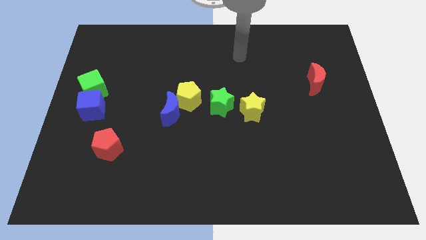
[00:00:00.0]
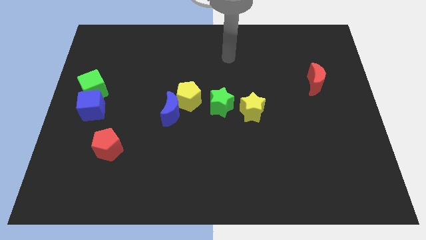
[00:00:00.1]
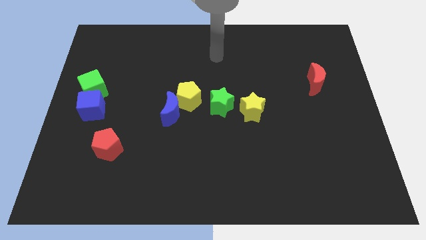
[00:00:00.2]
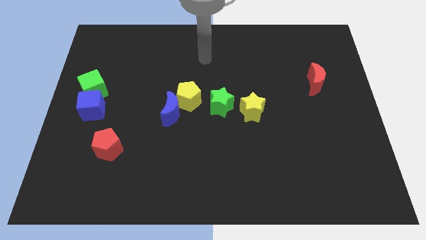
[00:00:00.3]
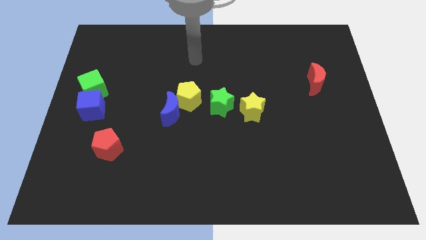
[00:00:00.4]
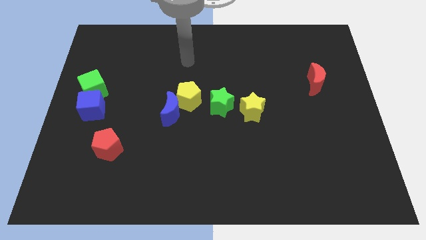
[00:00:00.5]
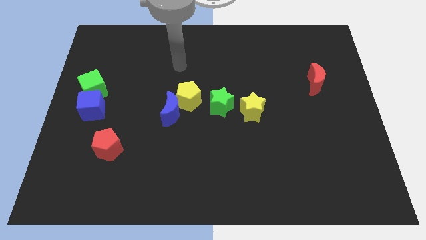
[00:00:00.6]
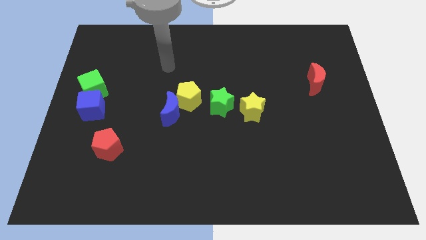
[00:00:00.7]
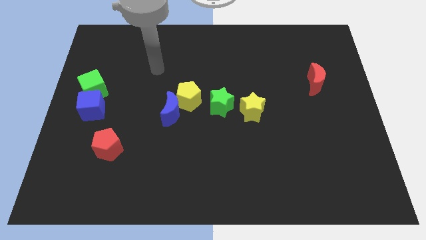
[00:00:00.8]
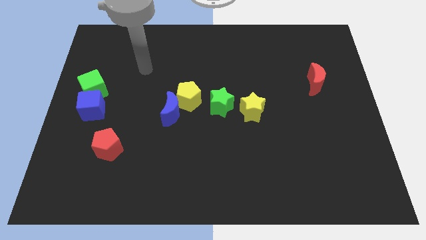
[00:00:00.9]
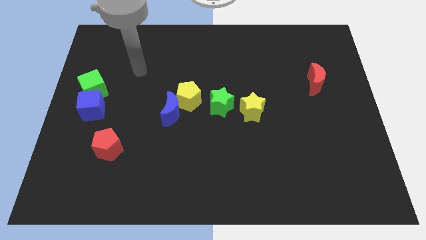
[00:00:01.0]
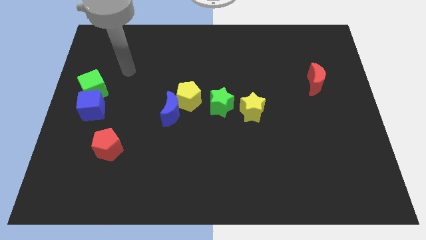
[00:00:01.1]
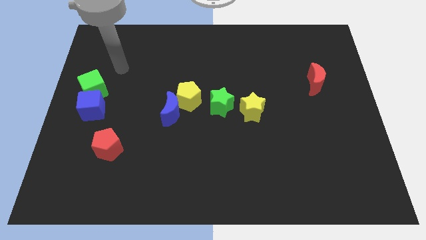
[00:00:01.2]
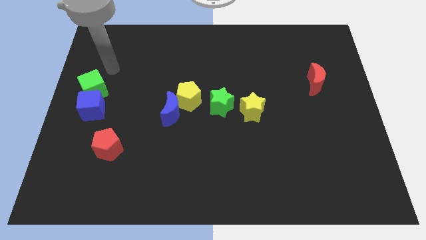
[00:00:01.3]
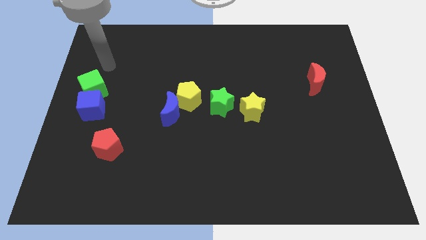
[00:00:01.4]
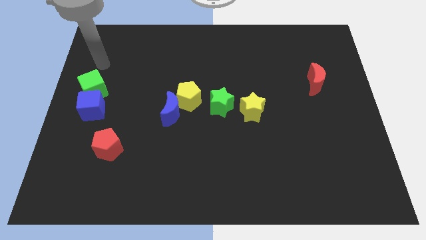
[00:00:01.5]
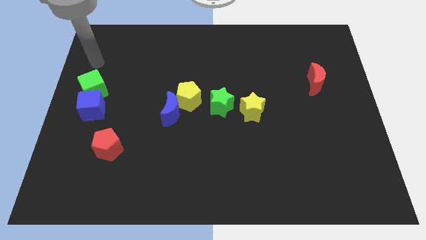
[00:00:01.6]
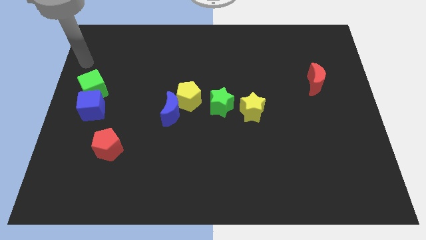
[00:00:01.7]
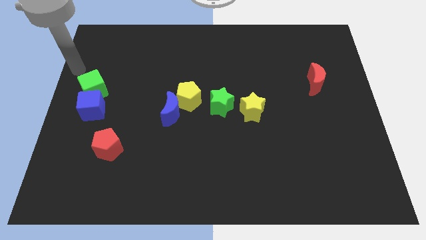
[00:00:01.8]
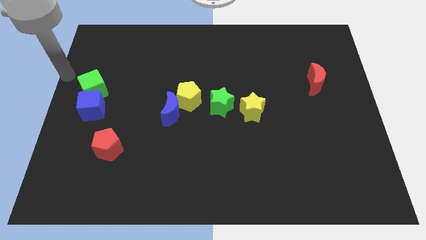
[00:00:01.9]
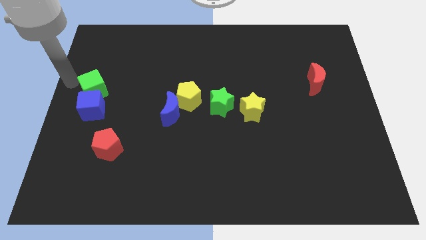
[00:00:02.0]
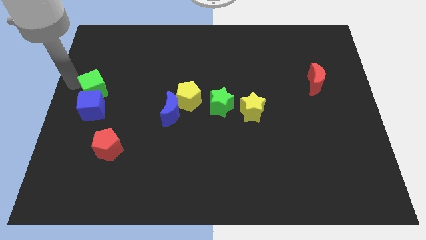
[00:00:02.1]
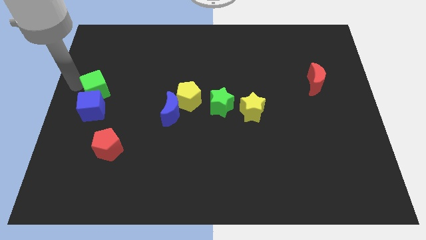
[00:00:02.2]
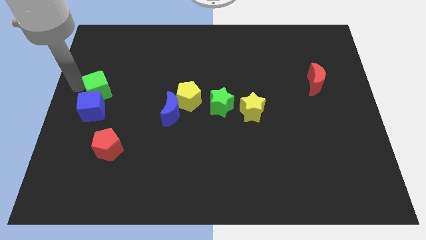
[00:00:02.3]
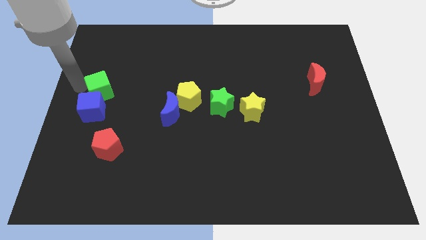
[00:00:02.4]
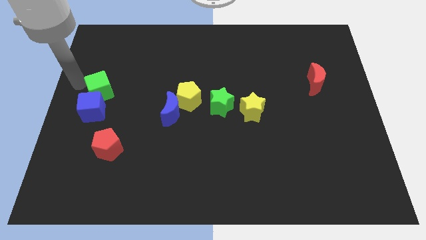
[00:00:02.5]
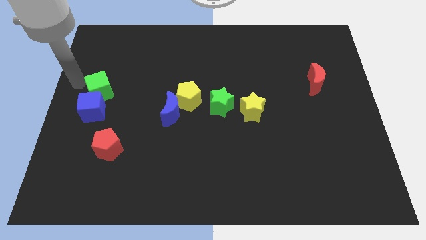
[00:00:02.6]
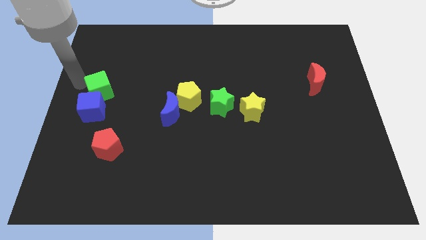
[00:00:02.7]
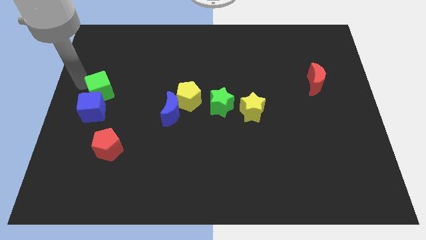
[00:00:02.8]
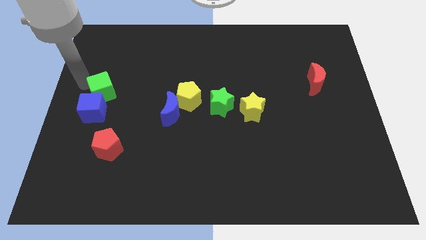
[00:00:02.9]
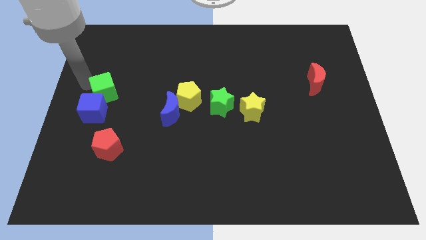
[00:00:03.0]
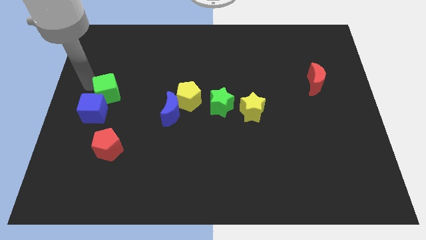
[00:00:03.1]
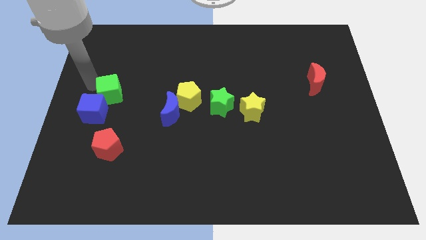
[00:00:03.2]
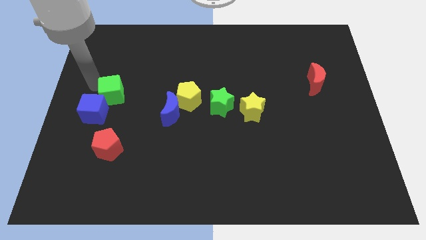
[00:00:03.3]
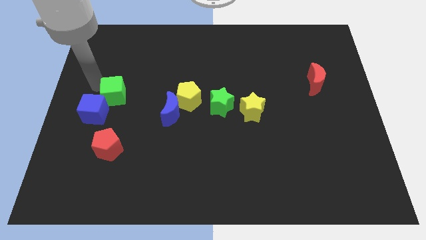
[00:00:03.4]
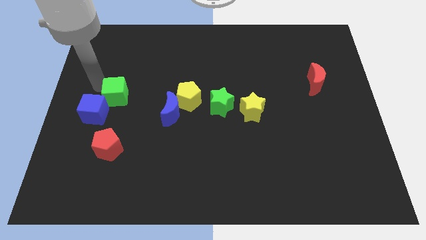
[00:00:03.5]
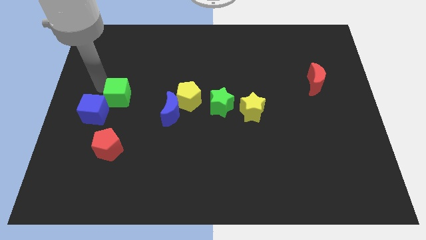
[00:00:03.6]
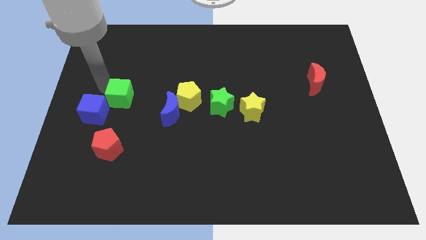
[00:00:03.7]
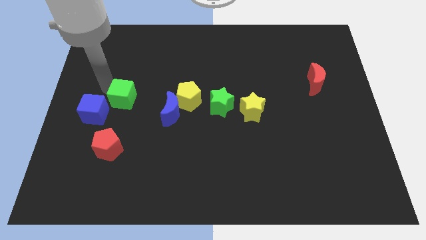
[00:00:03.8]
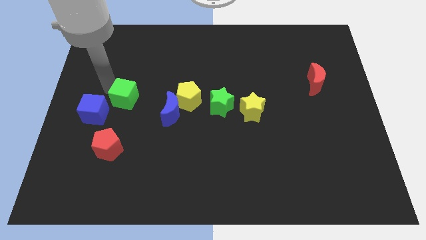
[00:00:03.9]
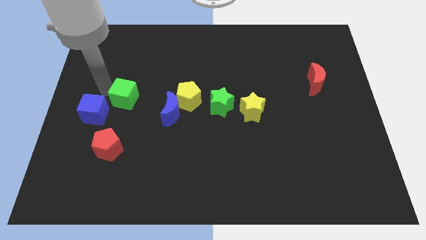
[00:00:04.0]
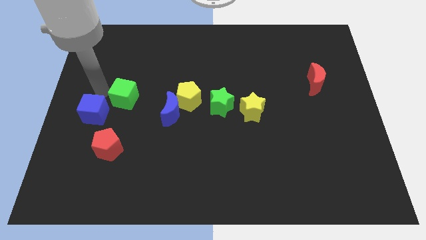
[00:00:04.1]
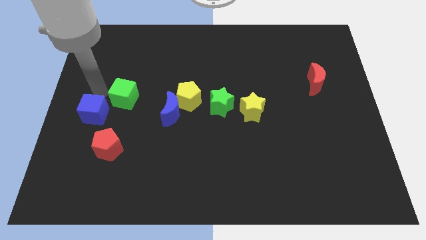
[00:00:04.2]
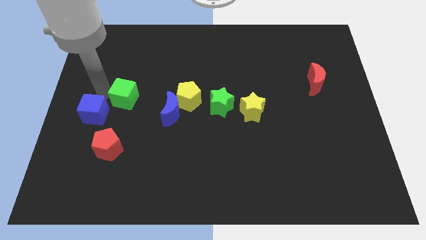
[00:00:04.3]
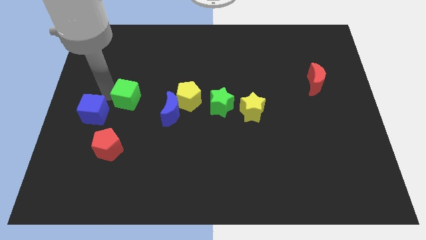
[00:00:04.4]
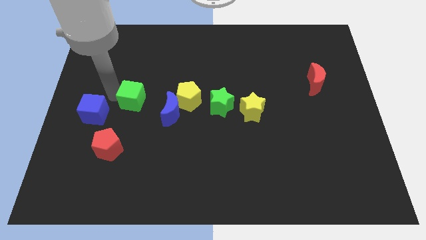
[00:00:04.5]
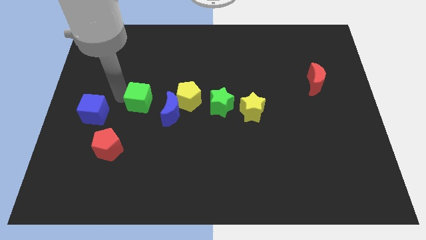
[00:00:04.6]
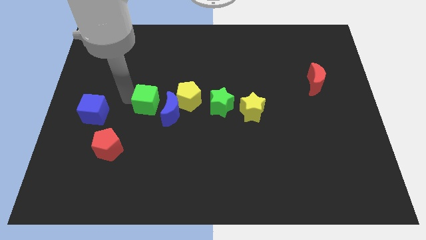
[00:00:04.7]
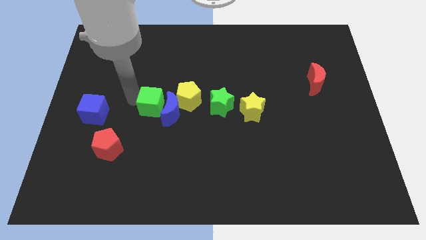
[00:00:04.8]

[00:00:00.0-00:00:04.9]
move the green cube towards the blue moon

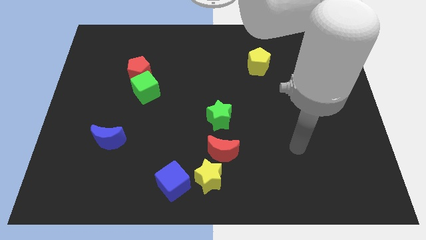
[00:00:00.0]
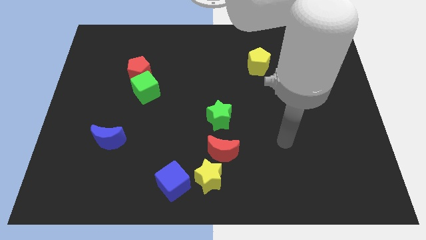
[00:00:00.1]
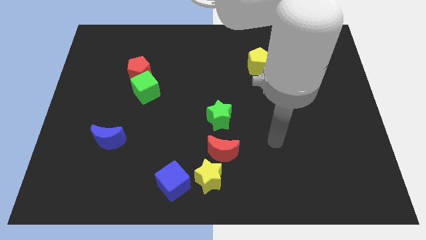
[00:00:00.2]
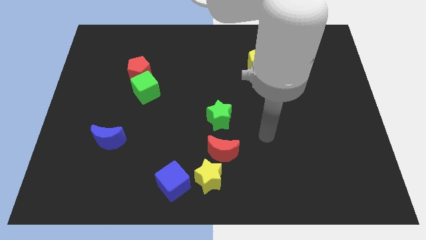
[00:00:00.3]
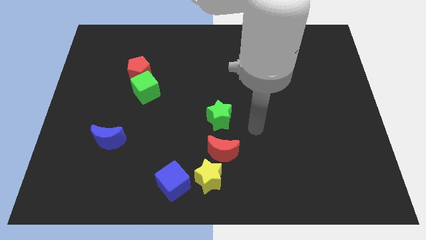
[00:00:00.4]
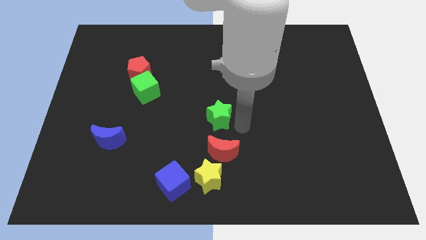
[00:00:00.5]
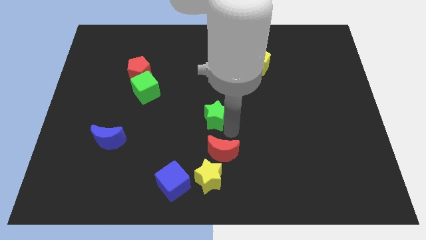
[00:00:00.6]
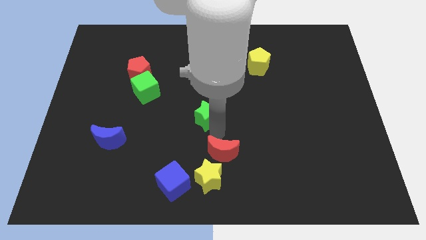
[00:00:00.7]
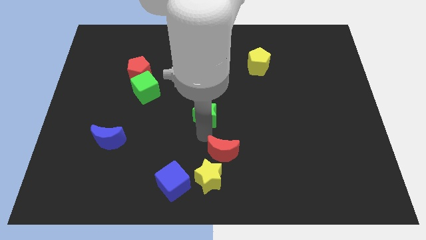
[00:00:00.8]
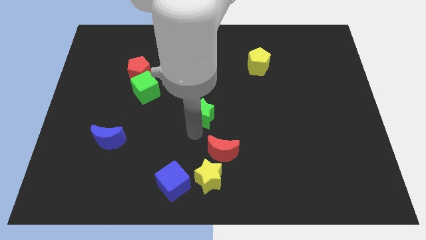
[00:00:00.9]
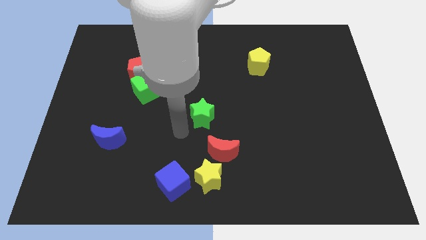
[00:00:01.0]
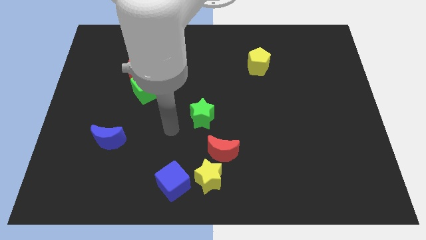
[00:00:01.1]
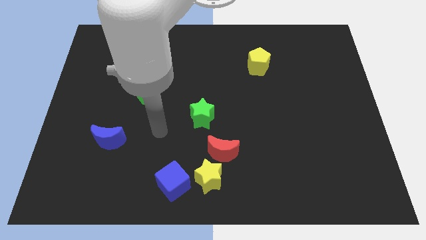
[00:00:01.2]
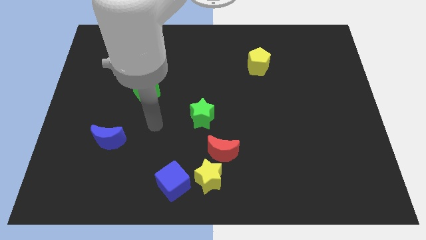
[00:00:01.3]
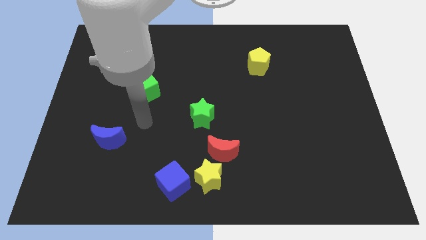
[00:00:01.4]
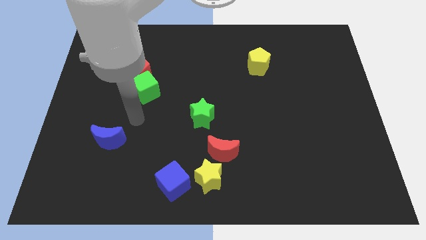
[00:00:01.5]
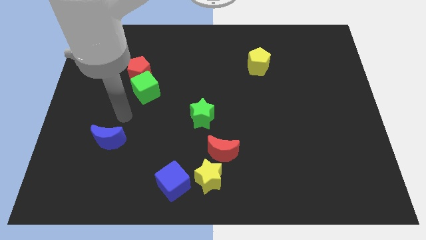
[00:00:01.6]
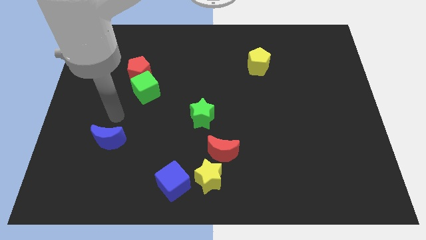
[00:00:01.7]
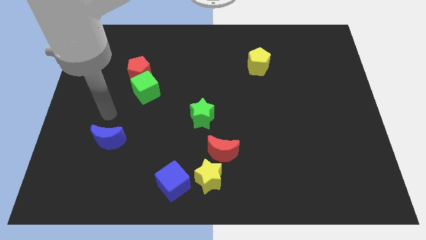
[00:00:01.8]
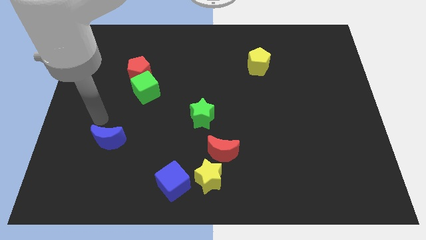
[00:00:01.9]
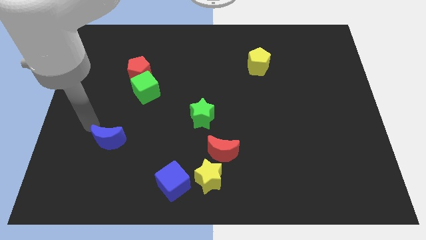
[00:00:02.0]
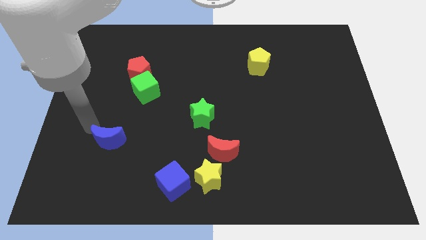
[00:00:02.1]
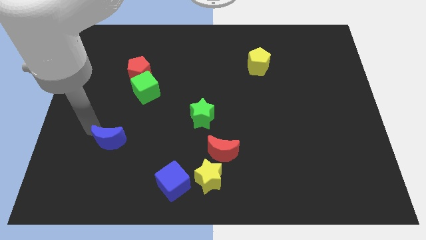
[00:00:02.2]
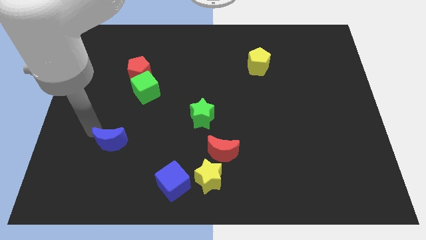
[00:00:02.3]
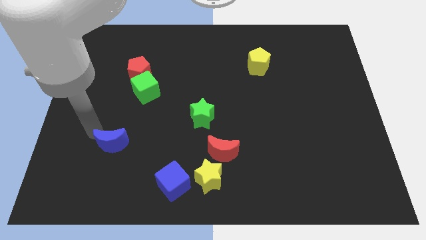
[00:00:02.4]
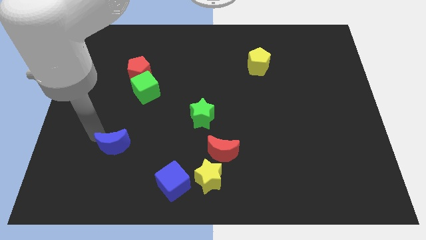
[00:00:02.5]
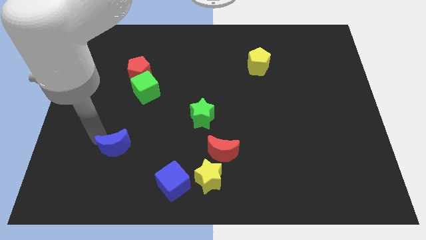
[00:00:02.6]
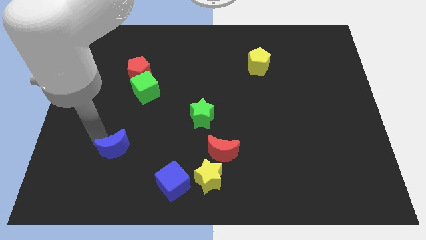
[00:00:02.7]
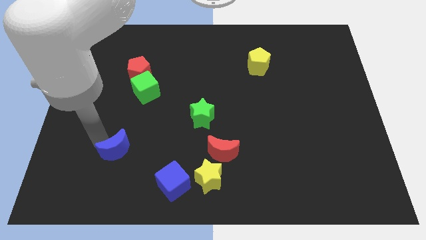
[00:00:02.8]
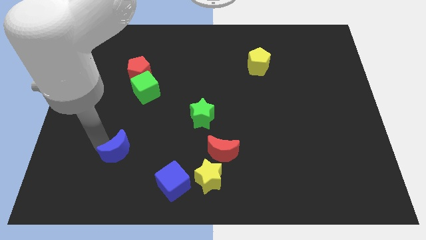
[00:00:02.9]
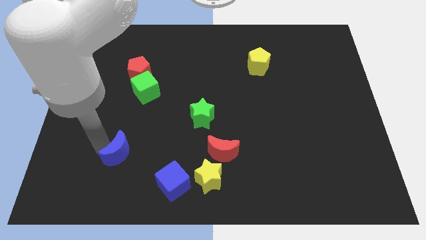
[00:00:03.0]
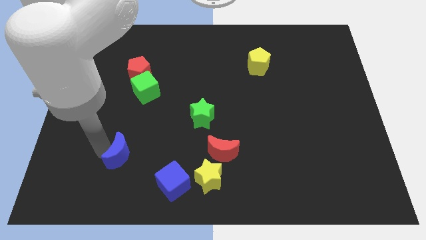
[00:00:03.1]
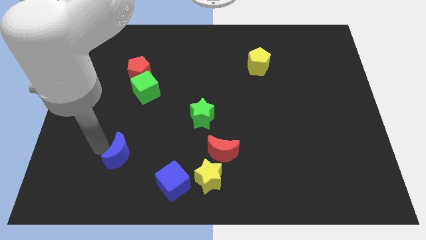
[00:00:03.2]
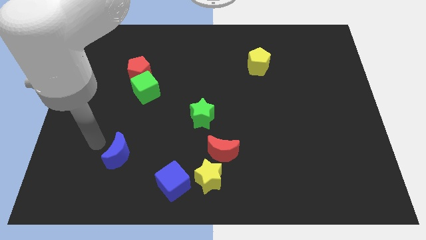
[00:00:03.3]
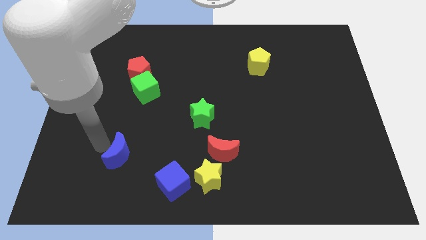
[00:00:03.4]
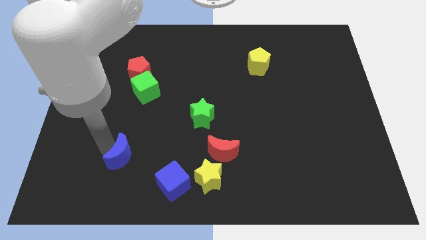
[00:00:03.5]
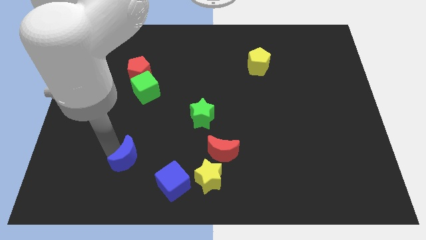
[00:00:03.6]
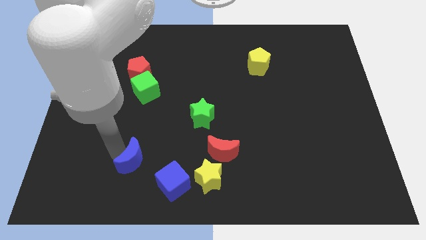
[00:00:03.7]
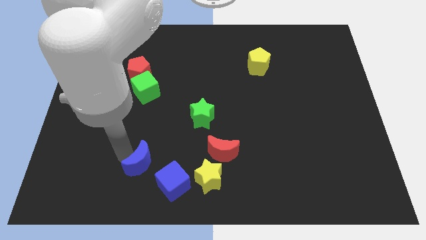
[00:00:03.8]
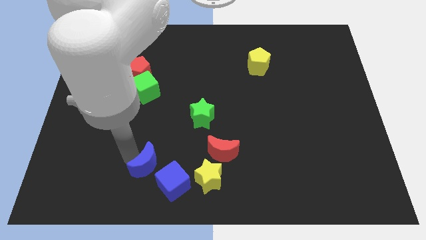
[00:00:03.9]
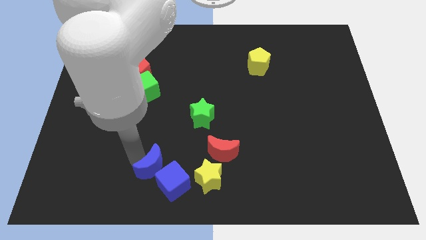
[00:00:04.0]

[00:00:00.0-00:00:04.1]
push the blue moon towards the blue cube
